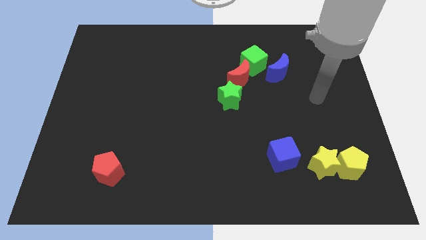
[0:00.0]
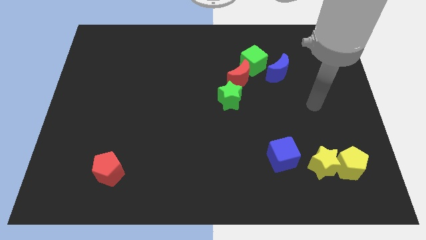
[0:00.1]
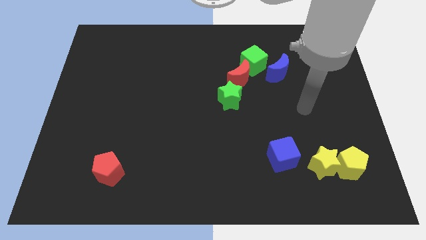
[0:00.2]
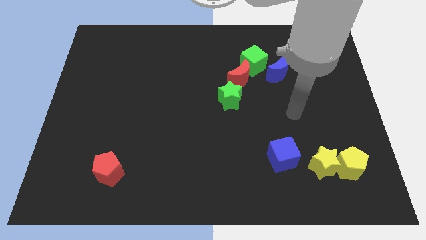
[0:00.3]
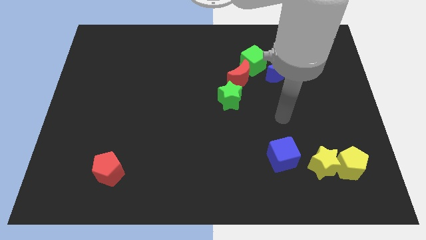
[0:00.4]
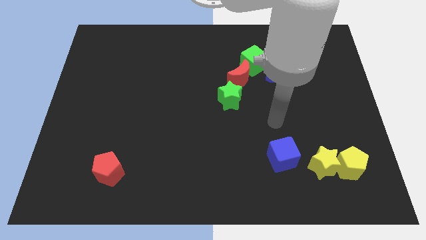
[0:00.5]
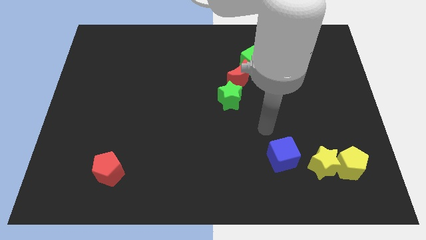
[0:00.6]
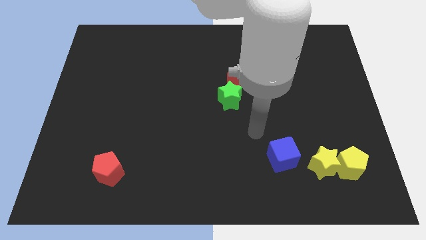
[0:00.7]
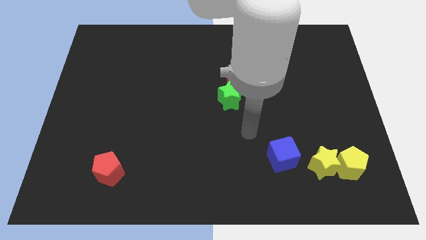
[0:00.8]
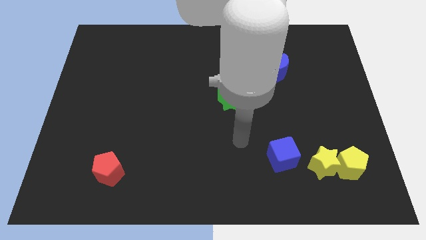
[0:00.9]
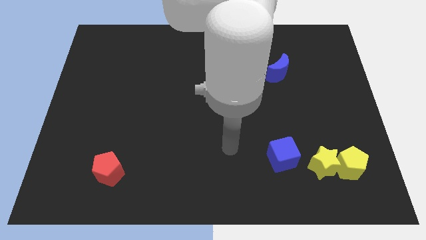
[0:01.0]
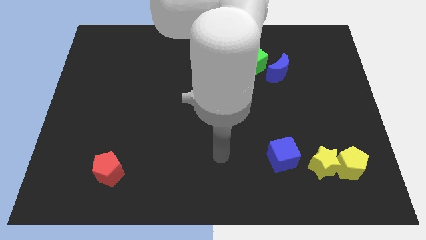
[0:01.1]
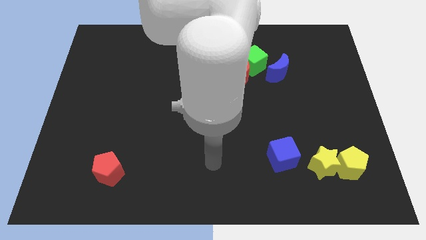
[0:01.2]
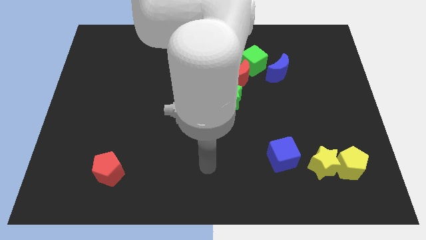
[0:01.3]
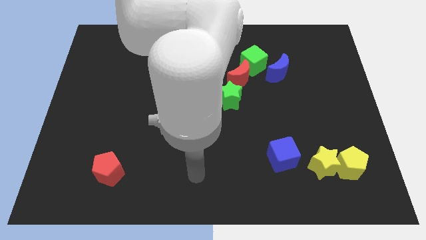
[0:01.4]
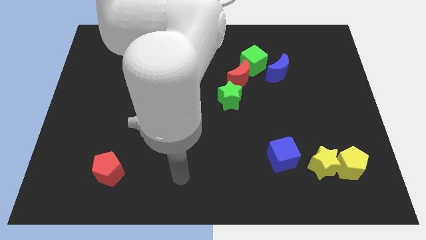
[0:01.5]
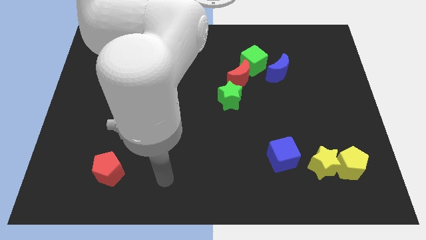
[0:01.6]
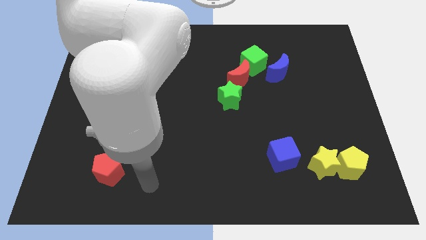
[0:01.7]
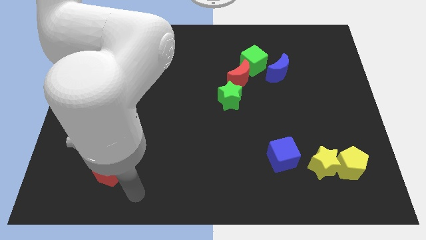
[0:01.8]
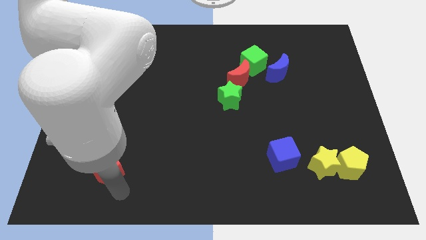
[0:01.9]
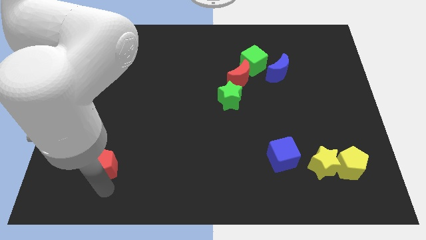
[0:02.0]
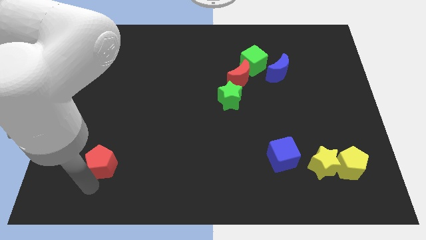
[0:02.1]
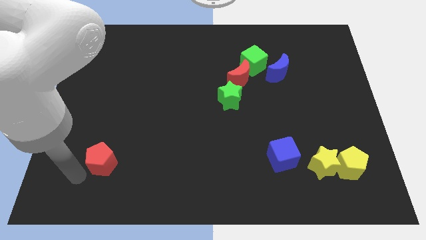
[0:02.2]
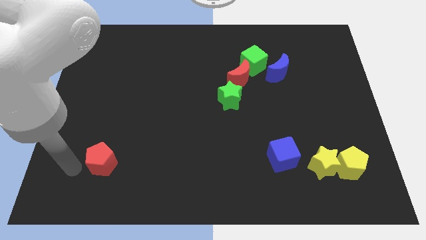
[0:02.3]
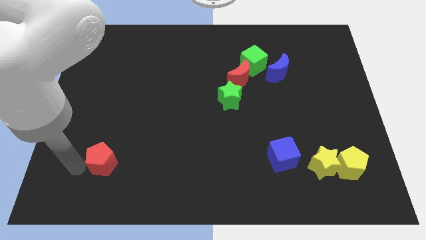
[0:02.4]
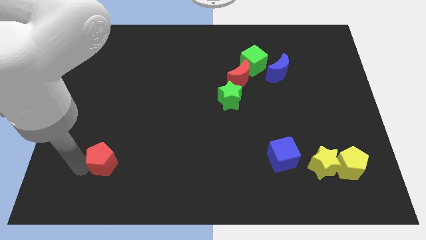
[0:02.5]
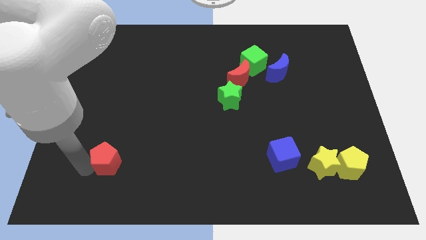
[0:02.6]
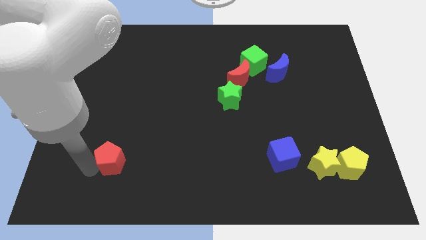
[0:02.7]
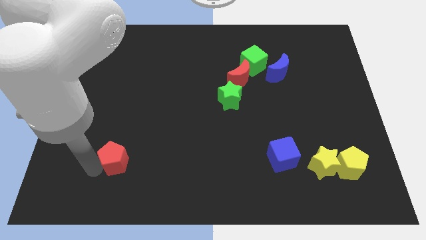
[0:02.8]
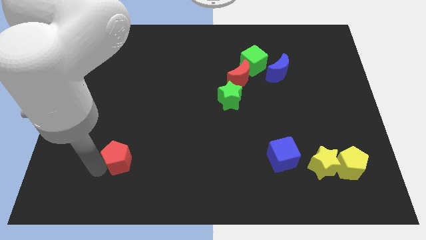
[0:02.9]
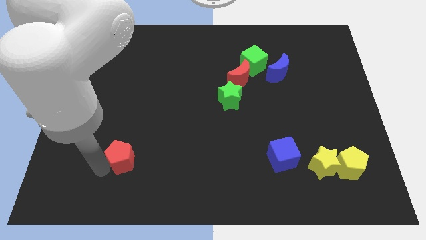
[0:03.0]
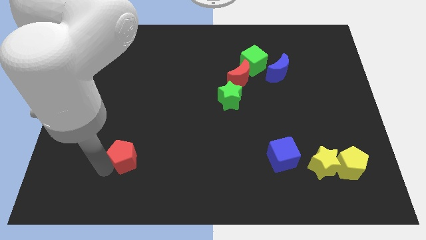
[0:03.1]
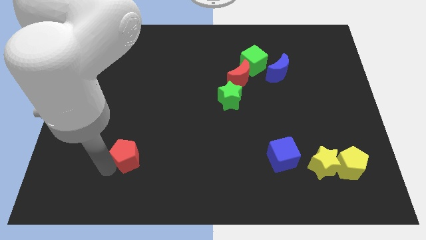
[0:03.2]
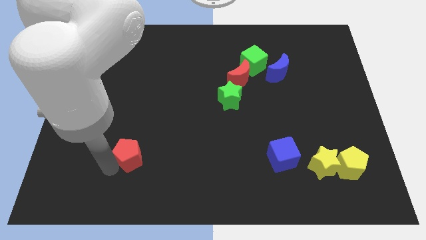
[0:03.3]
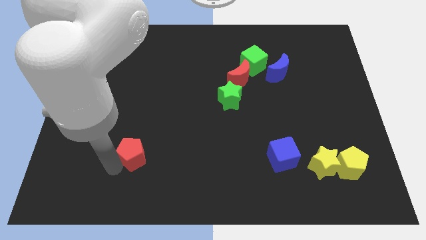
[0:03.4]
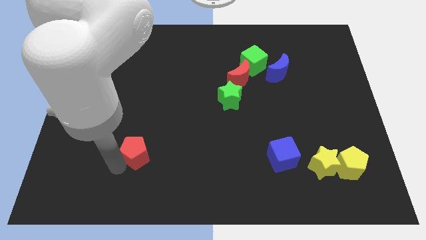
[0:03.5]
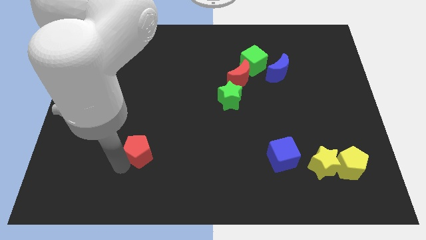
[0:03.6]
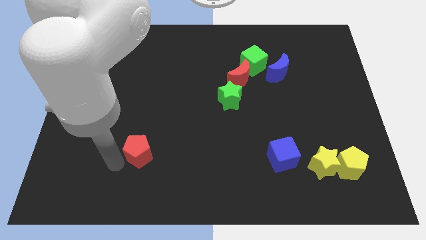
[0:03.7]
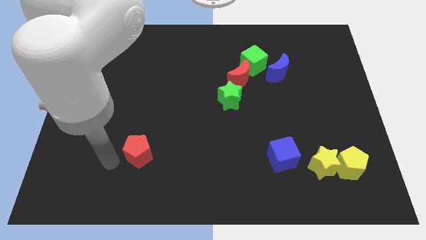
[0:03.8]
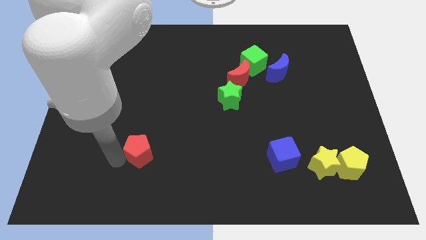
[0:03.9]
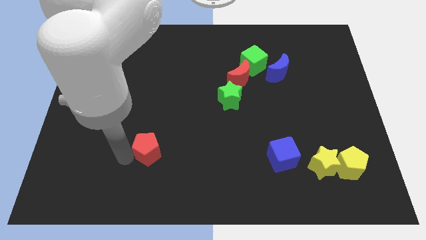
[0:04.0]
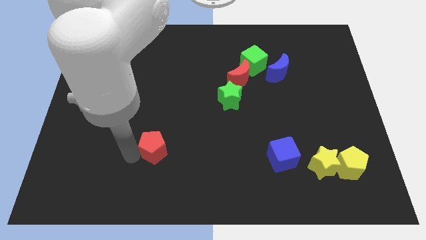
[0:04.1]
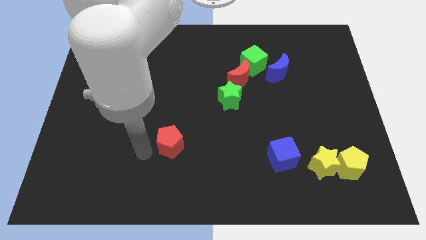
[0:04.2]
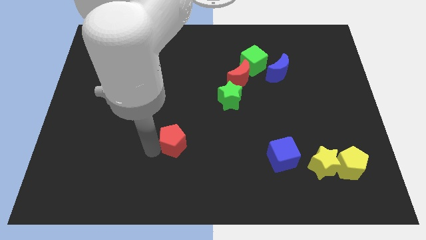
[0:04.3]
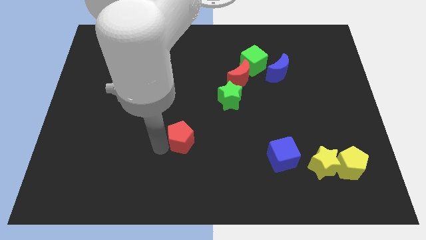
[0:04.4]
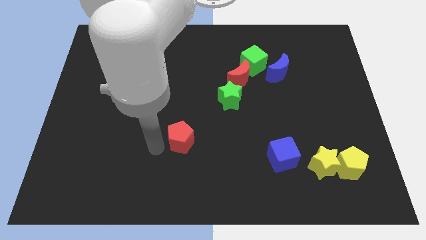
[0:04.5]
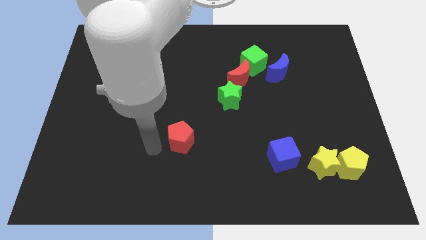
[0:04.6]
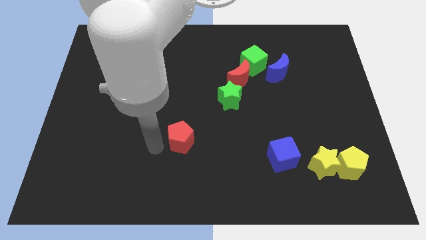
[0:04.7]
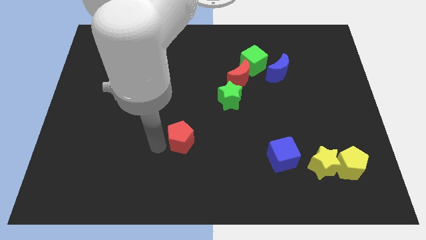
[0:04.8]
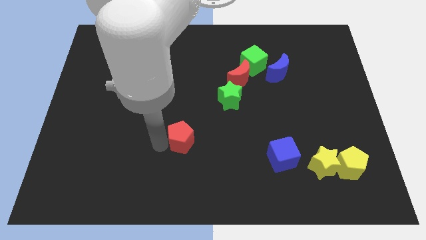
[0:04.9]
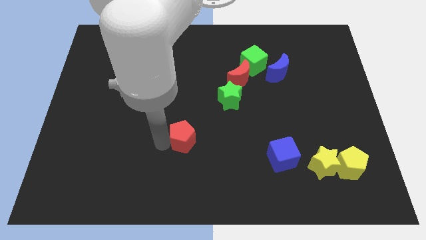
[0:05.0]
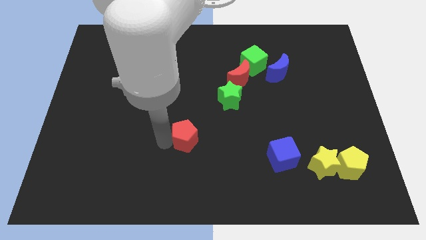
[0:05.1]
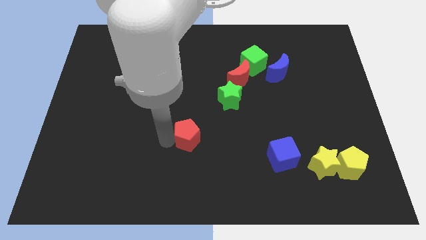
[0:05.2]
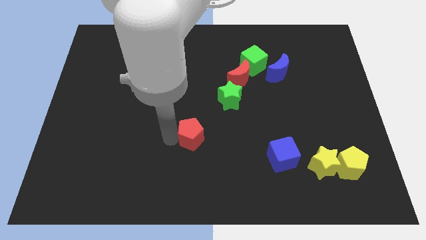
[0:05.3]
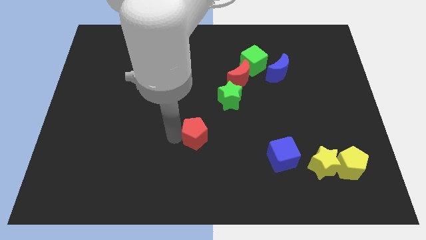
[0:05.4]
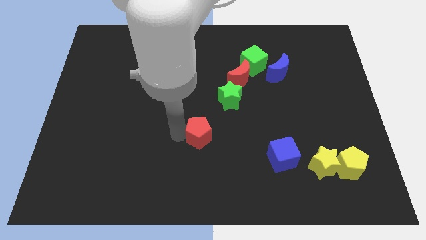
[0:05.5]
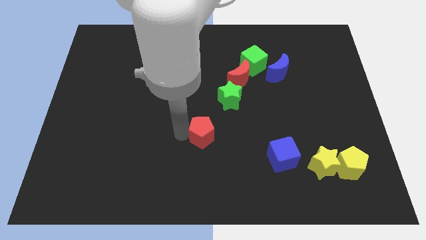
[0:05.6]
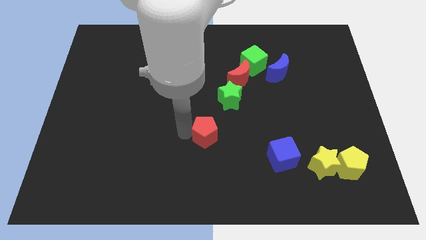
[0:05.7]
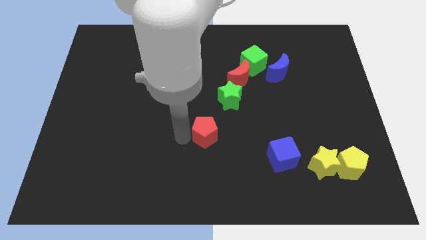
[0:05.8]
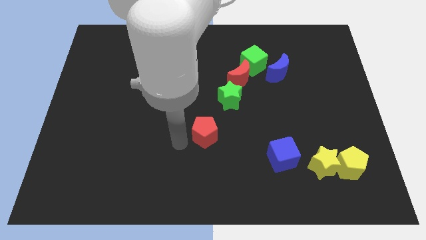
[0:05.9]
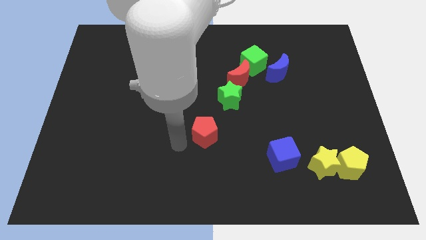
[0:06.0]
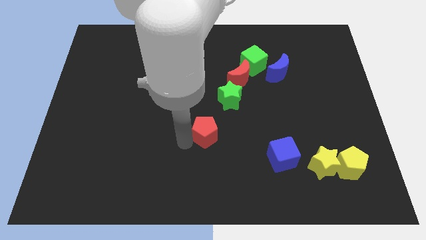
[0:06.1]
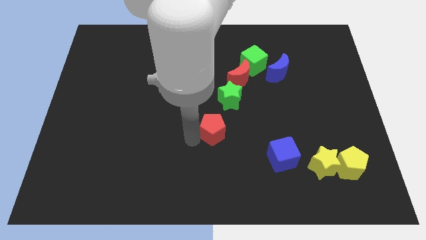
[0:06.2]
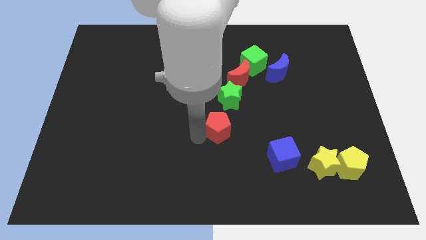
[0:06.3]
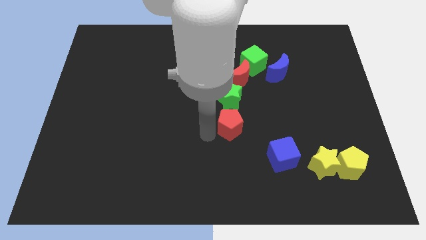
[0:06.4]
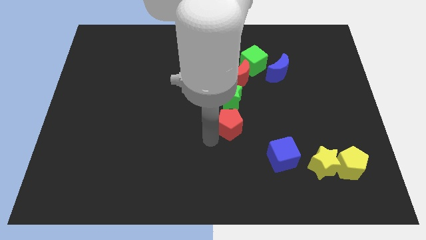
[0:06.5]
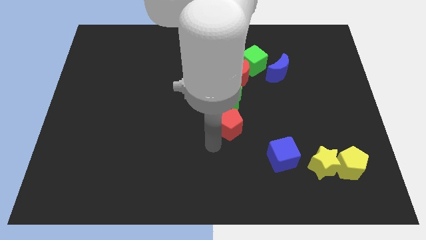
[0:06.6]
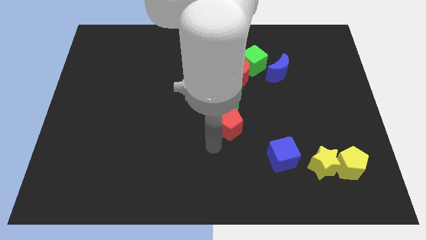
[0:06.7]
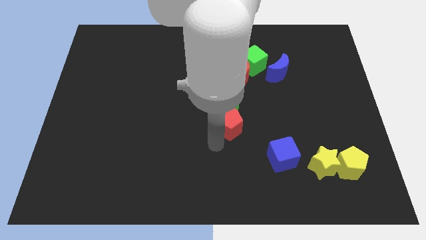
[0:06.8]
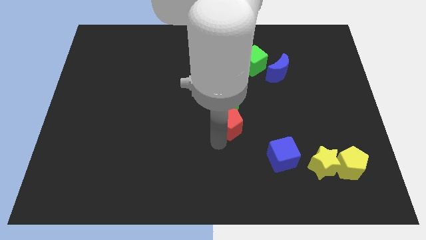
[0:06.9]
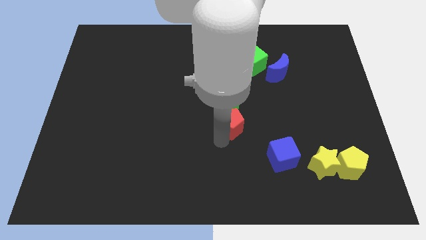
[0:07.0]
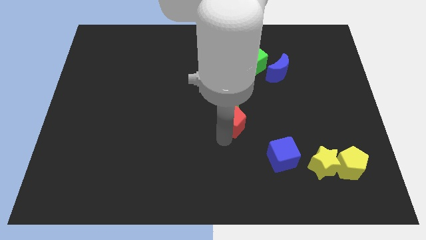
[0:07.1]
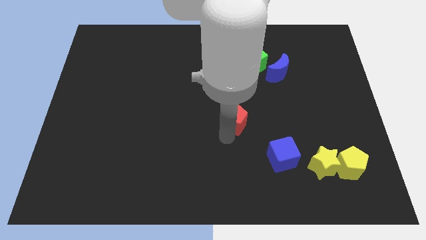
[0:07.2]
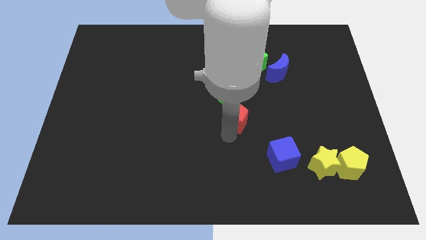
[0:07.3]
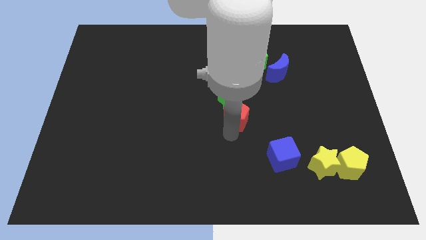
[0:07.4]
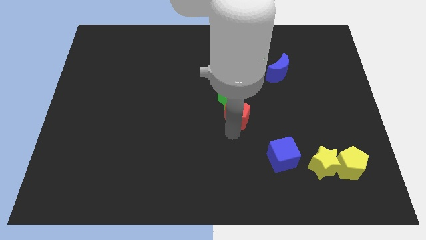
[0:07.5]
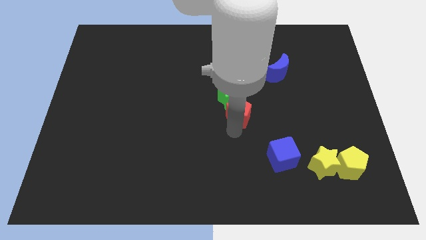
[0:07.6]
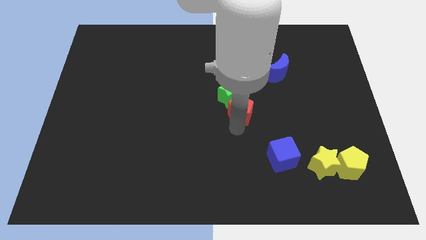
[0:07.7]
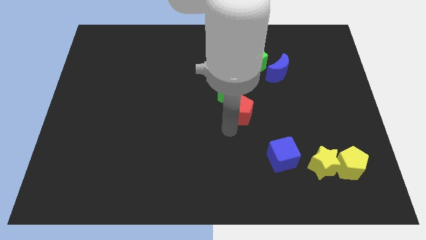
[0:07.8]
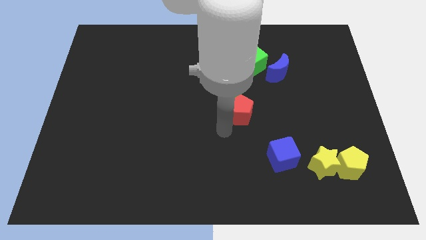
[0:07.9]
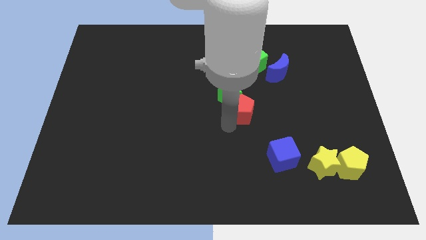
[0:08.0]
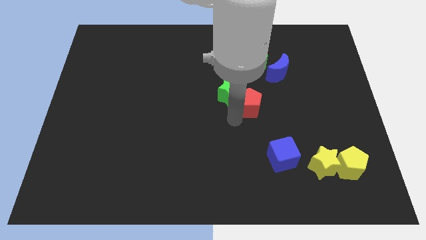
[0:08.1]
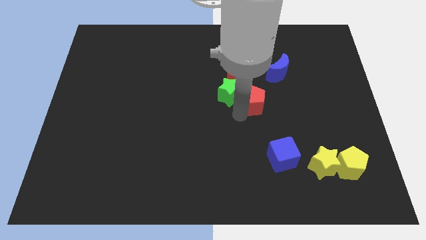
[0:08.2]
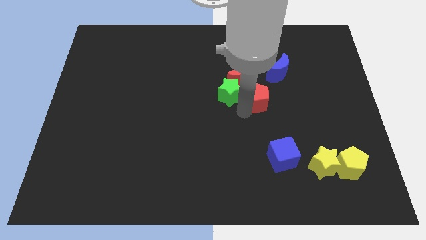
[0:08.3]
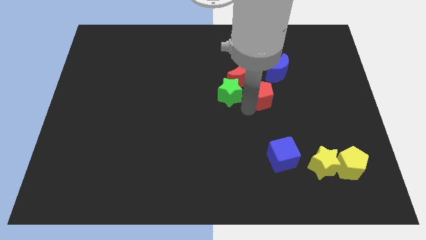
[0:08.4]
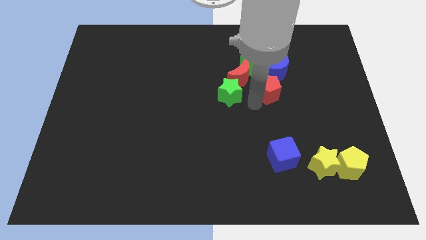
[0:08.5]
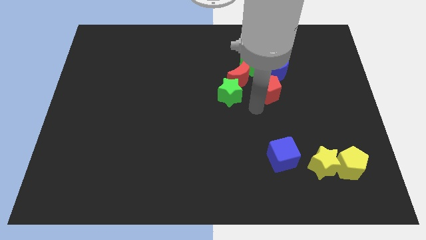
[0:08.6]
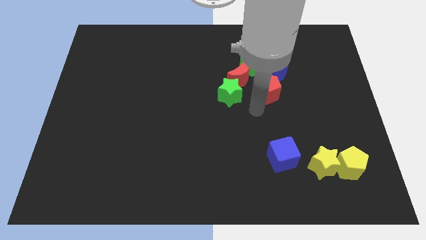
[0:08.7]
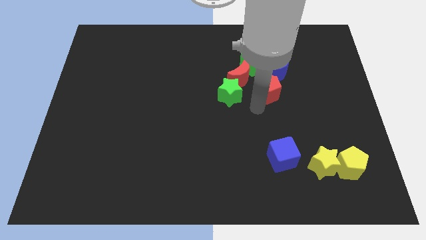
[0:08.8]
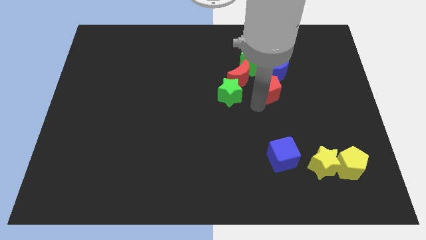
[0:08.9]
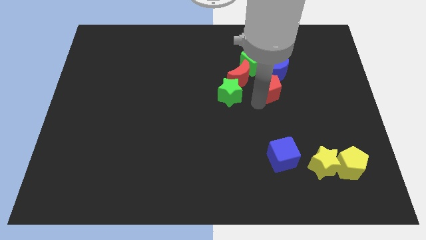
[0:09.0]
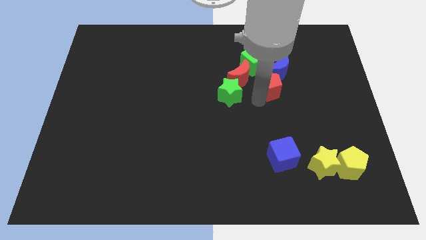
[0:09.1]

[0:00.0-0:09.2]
move the red pentagon to the blue moon
